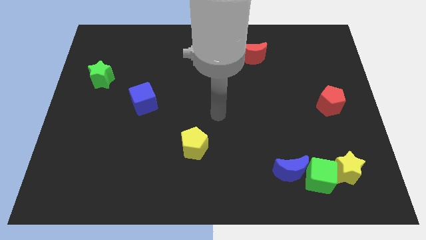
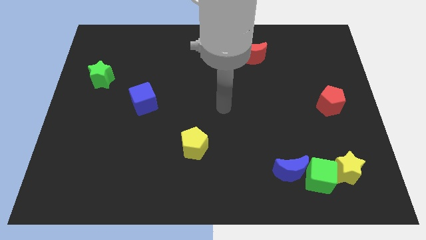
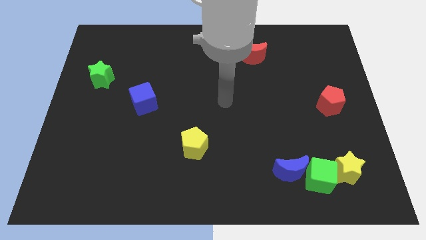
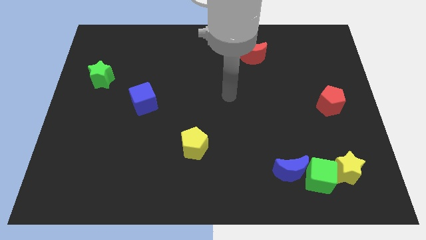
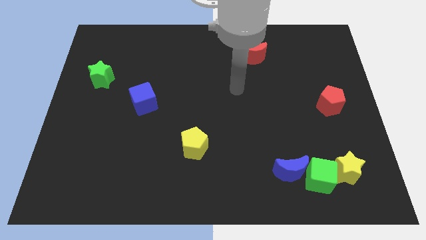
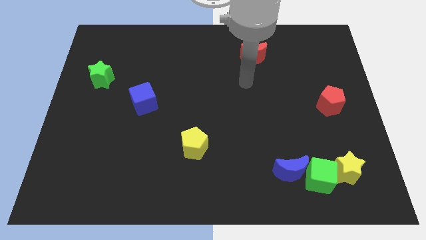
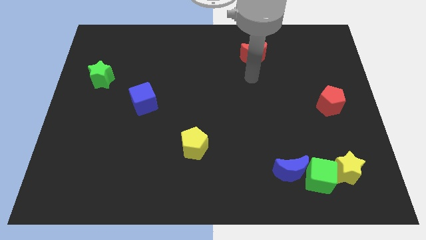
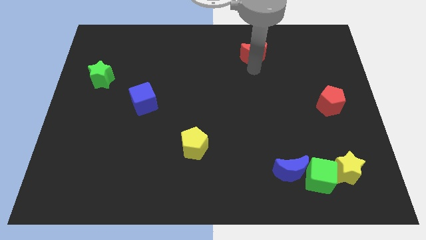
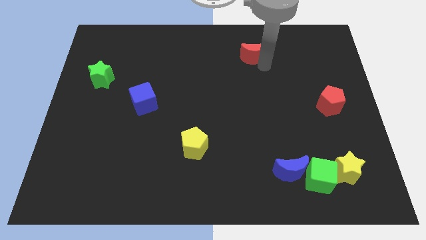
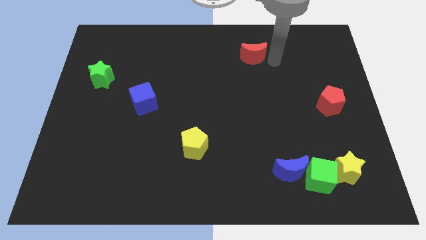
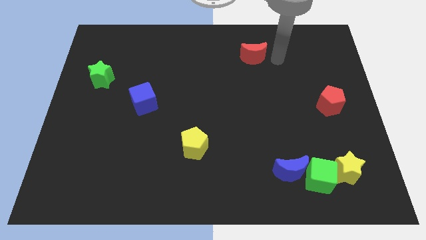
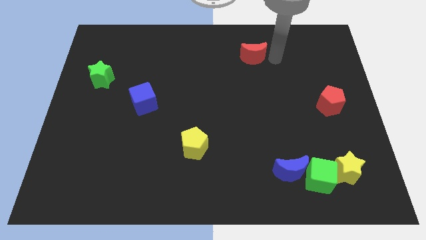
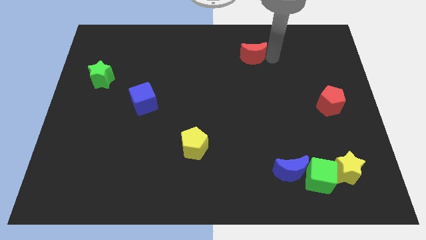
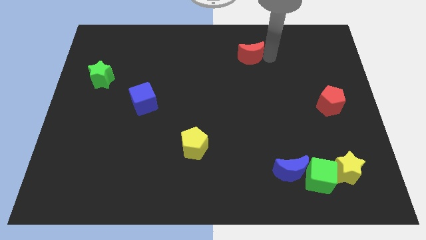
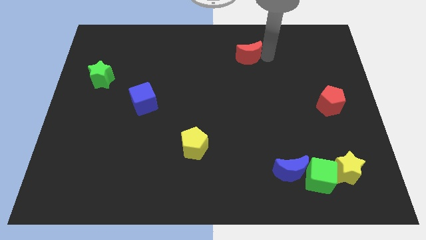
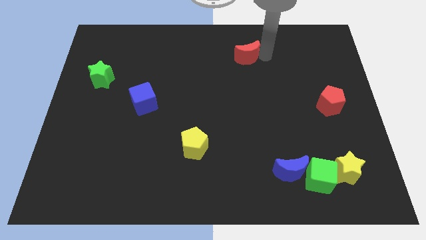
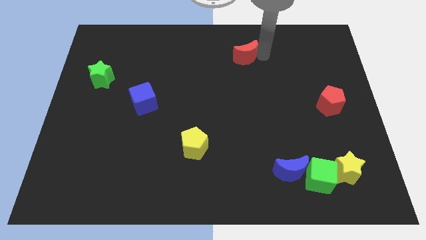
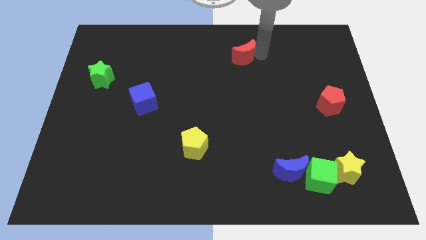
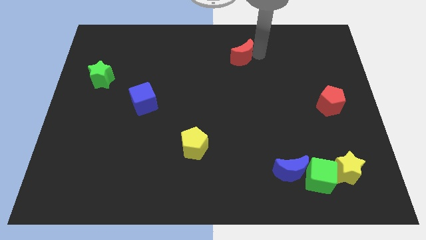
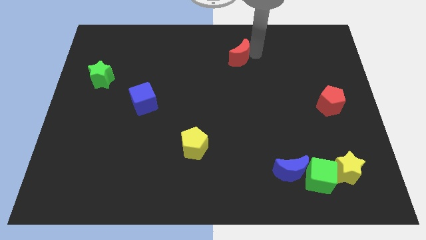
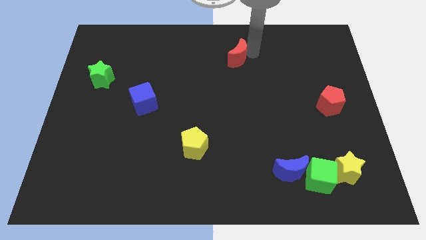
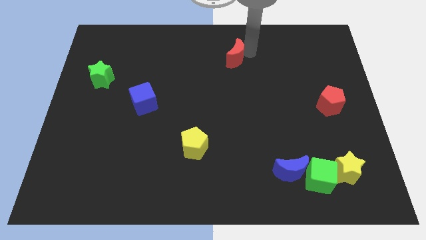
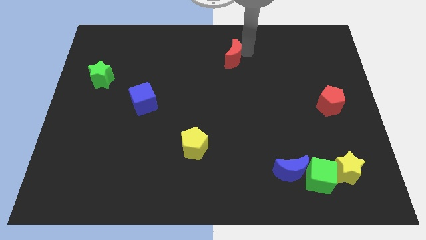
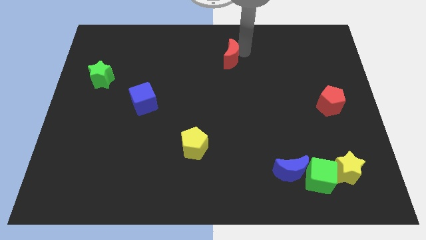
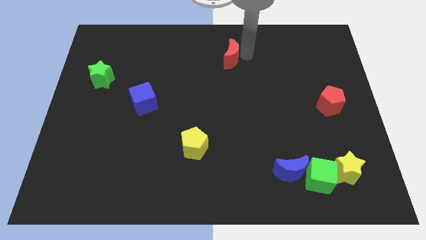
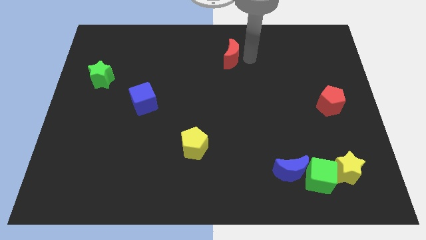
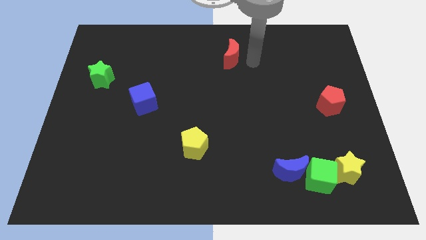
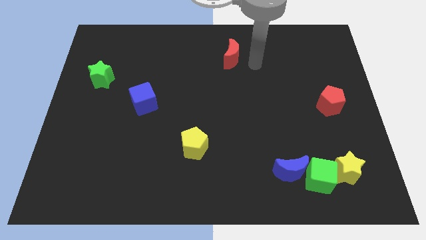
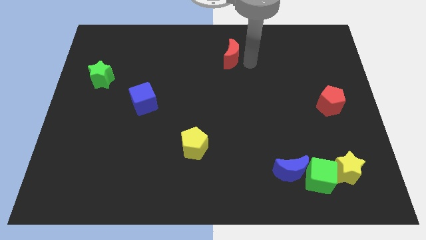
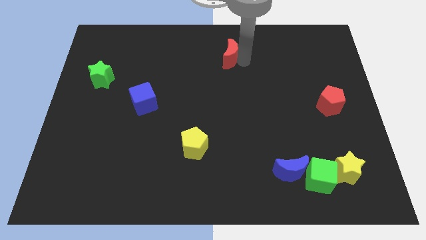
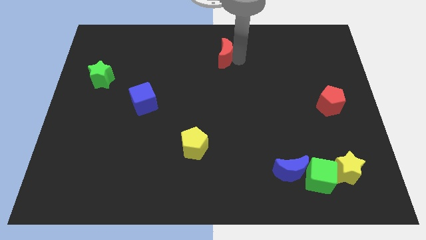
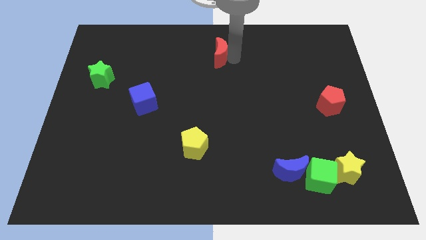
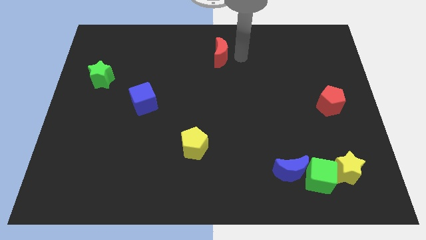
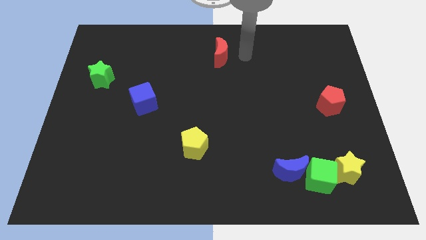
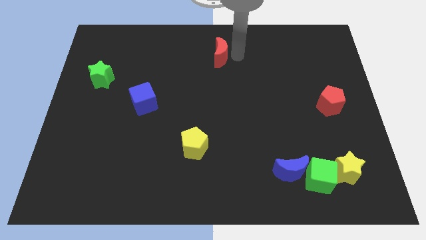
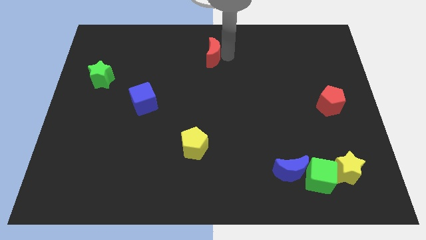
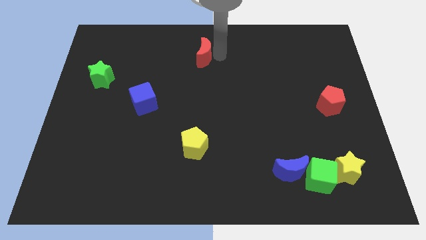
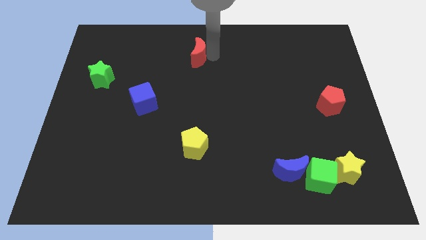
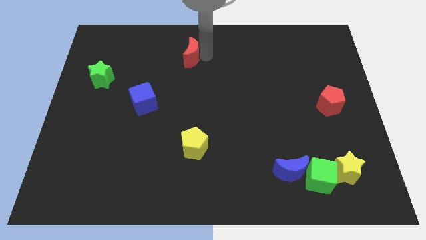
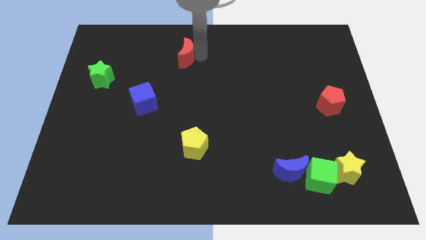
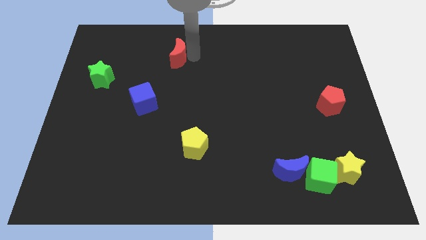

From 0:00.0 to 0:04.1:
slide the red moon left

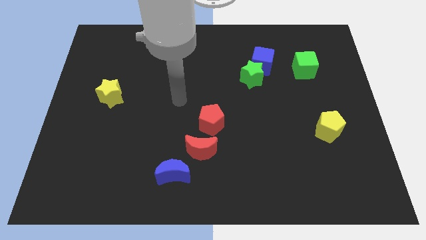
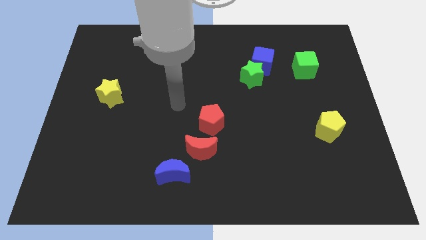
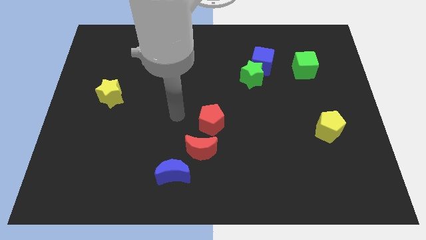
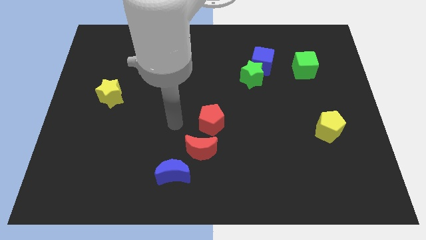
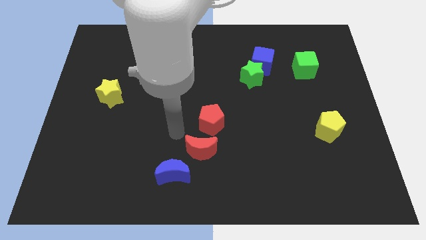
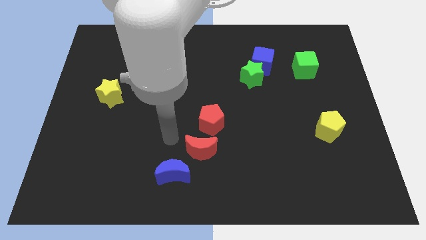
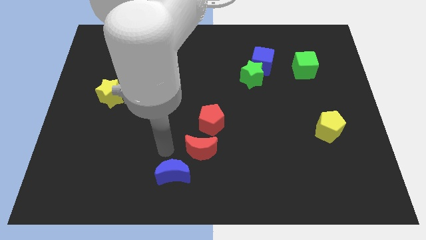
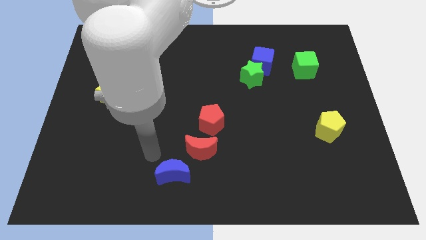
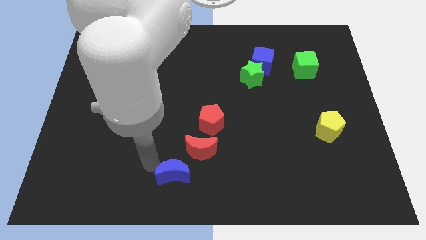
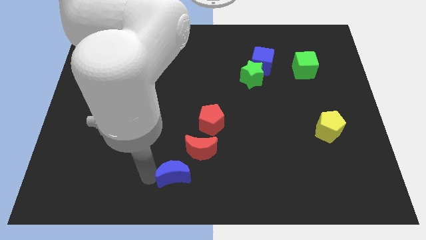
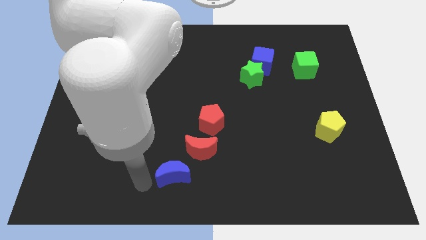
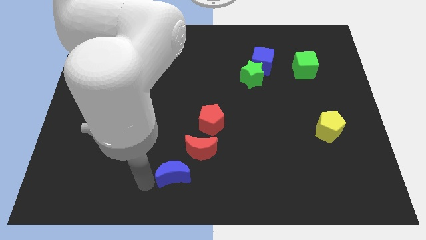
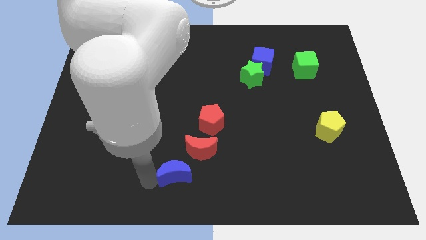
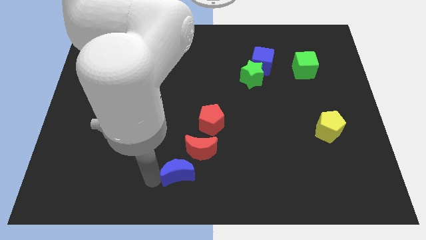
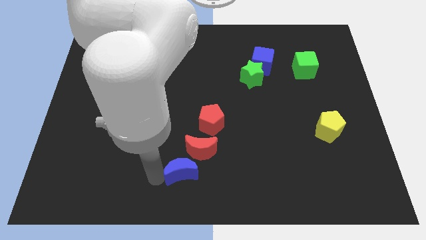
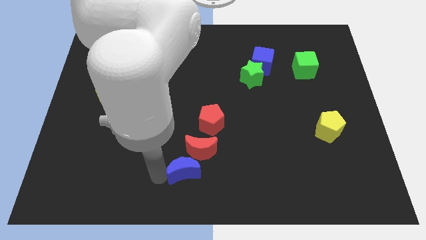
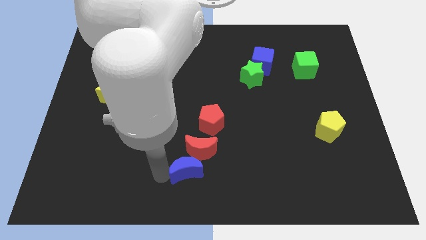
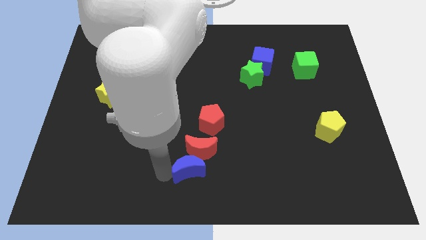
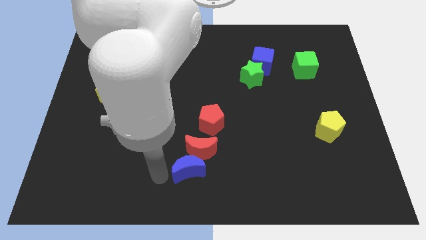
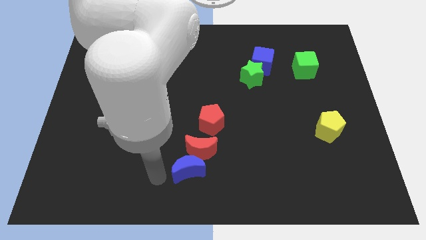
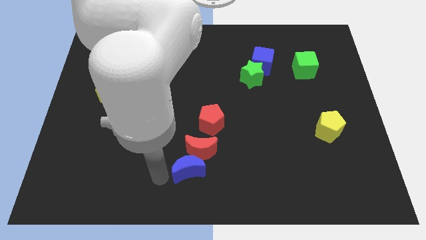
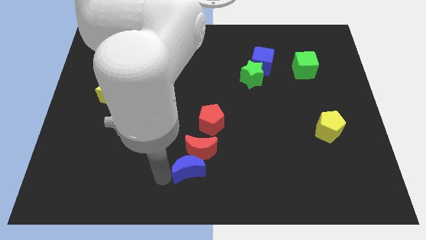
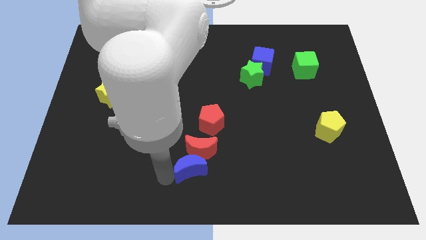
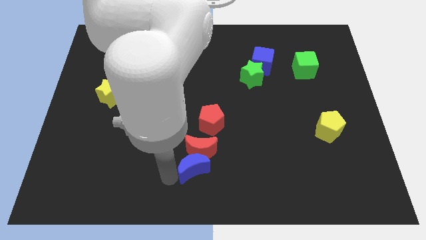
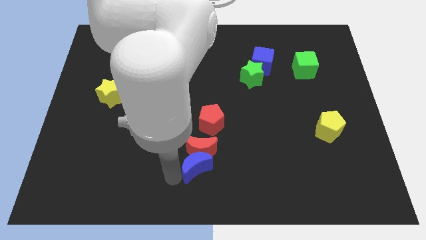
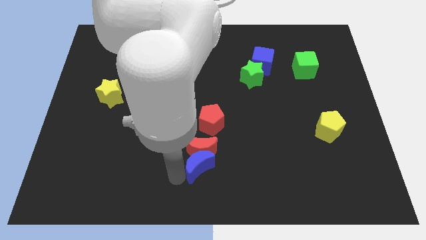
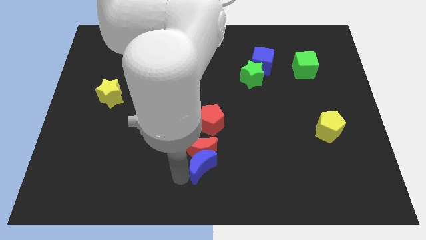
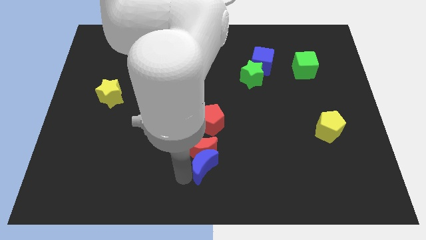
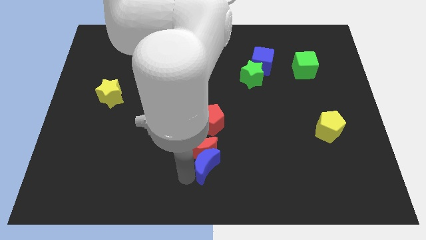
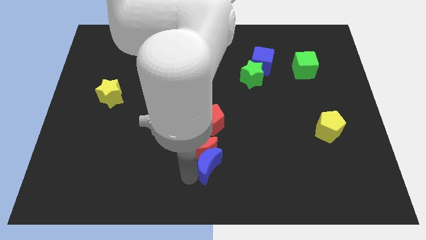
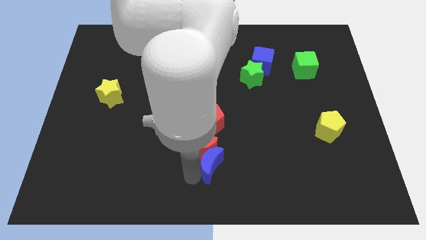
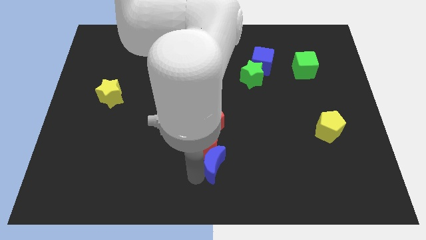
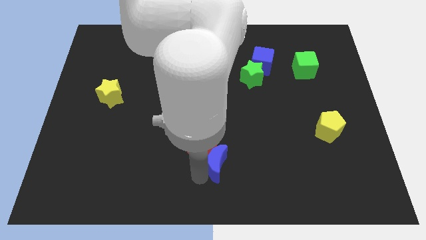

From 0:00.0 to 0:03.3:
slide the blue moon upwards and to the right a bit

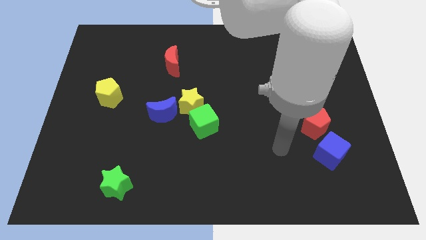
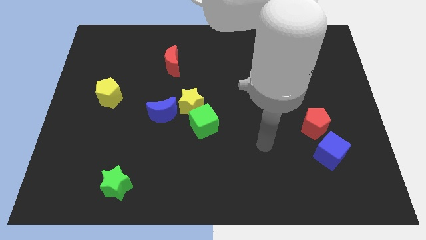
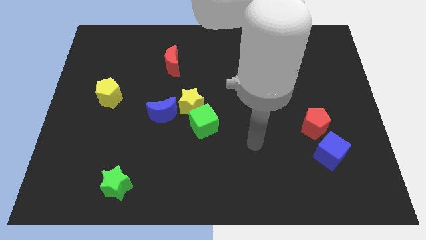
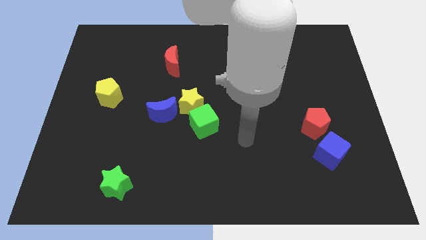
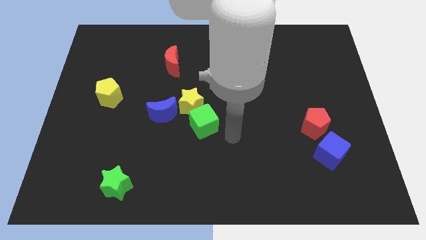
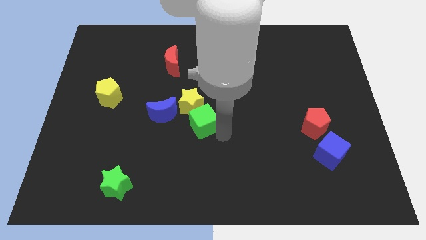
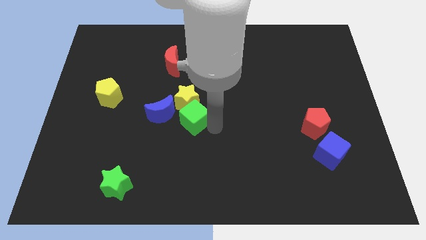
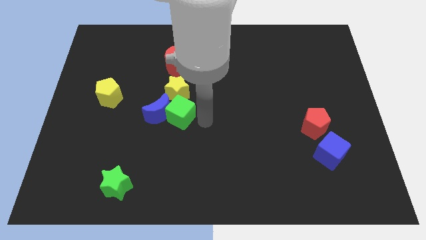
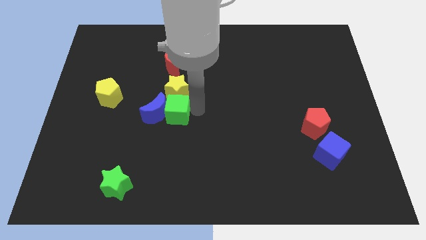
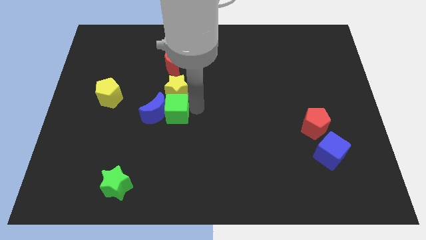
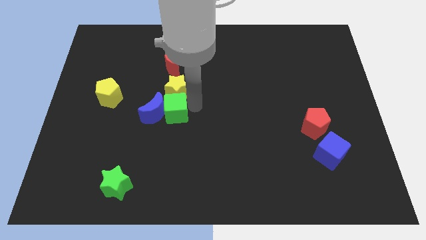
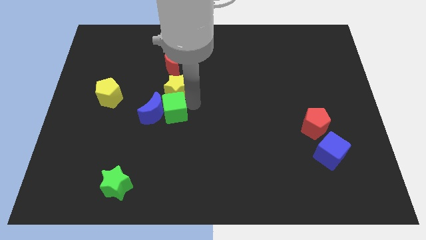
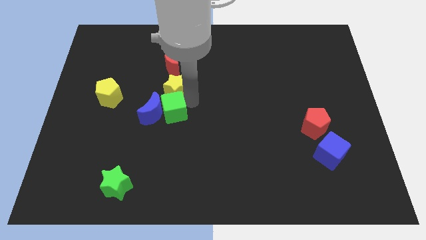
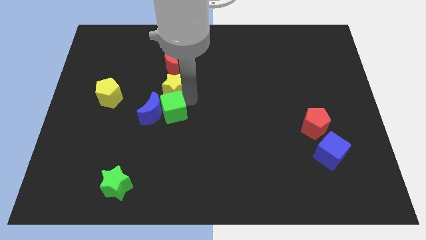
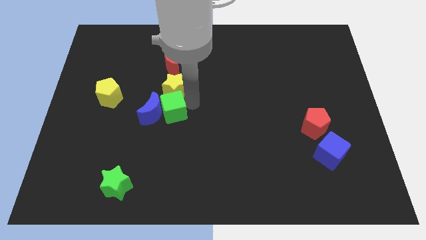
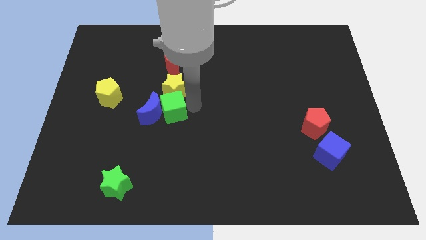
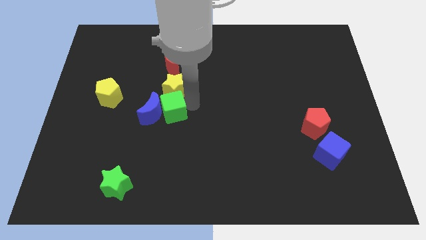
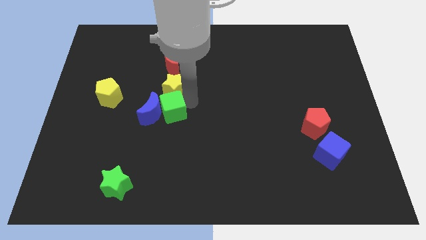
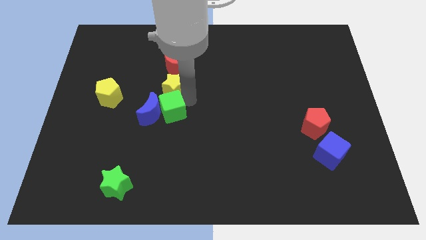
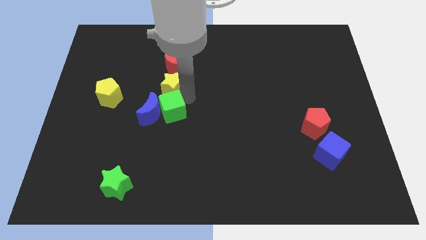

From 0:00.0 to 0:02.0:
move the yellow star upwards and to the left diagonally somewhat
